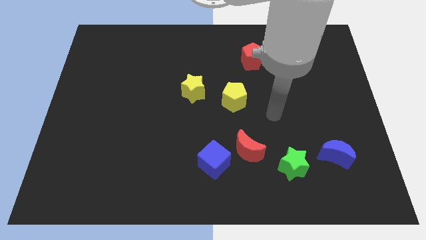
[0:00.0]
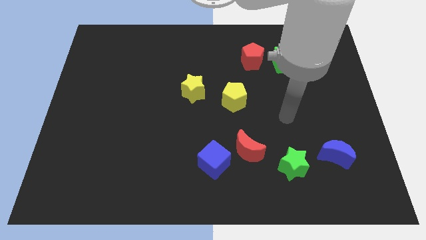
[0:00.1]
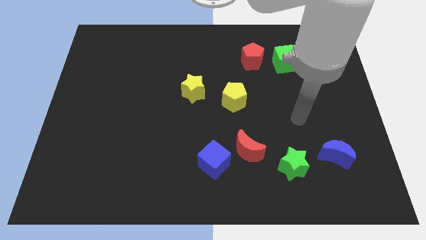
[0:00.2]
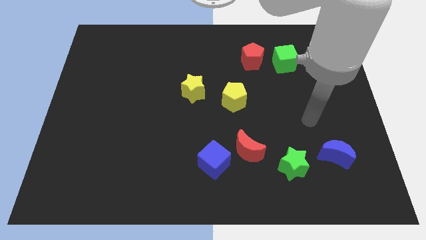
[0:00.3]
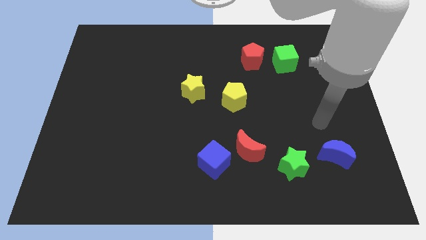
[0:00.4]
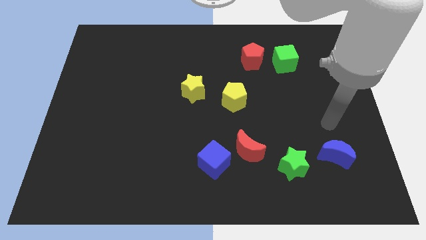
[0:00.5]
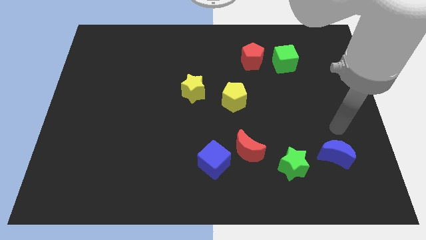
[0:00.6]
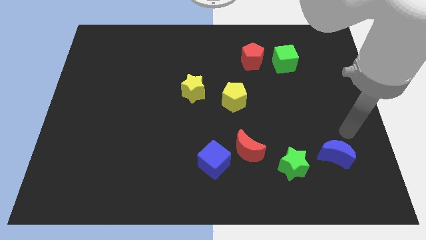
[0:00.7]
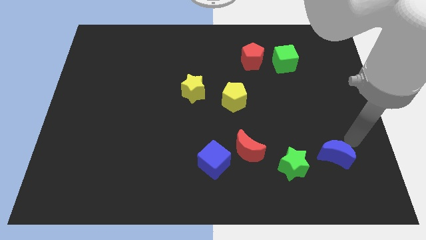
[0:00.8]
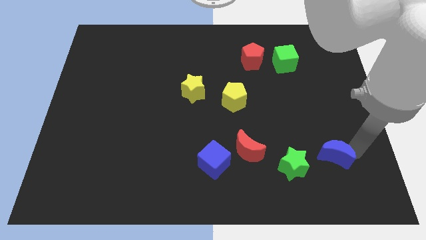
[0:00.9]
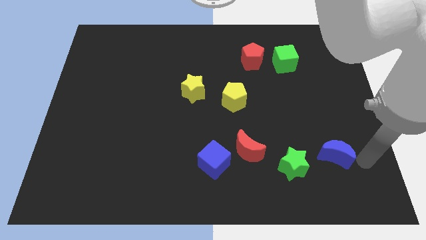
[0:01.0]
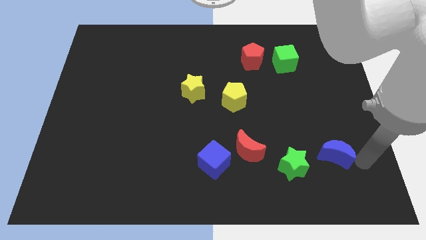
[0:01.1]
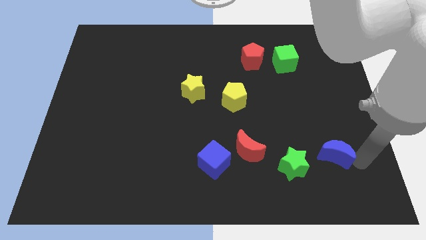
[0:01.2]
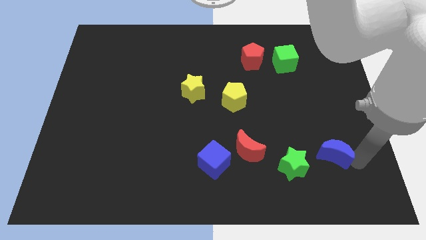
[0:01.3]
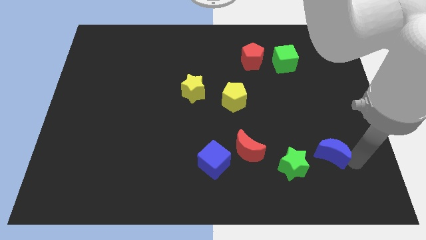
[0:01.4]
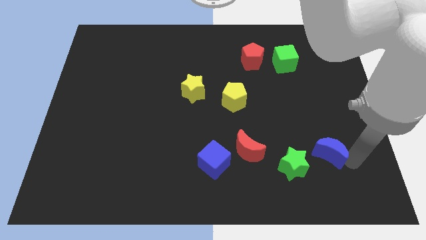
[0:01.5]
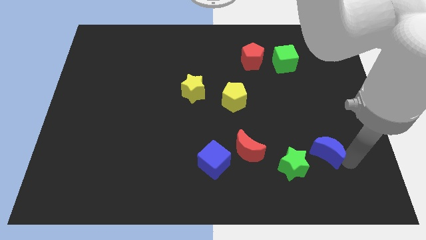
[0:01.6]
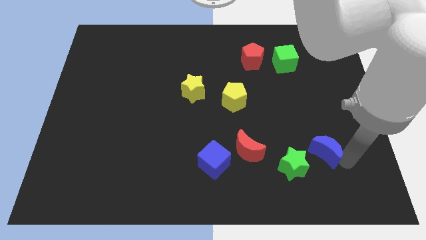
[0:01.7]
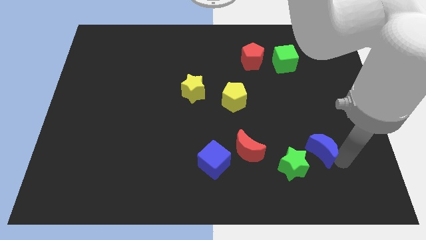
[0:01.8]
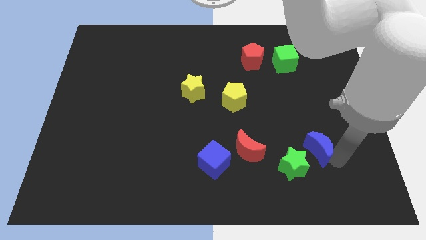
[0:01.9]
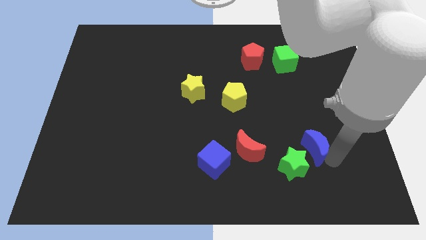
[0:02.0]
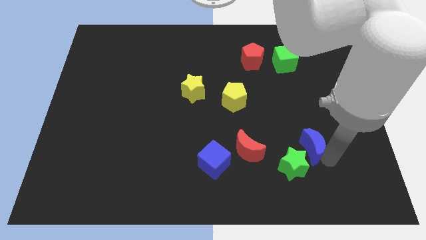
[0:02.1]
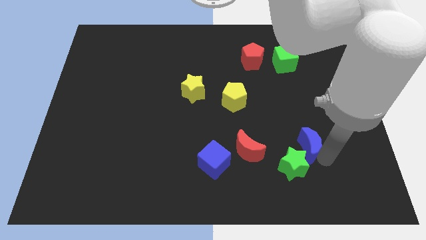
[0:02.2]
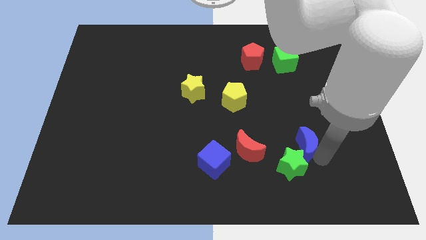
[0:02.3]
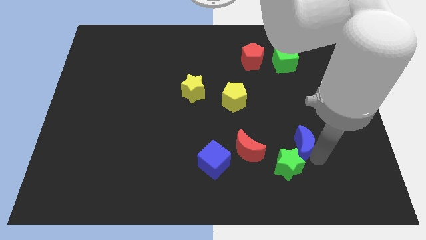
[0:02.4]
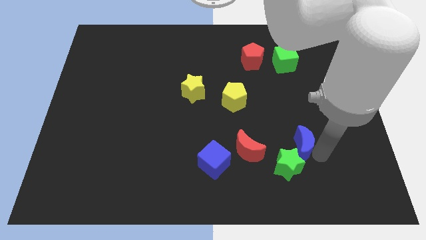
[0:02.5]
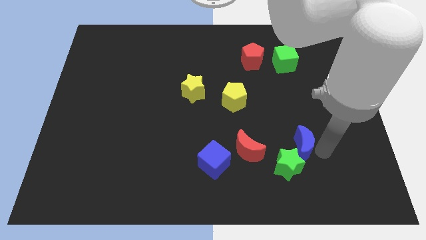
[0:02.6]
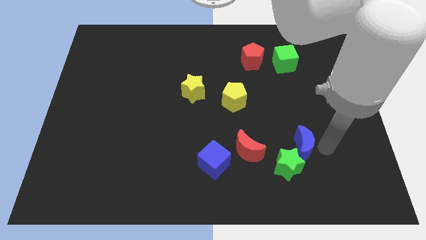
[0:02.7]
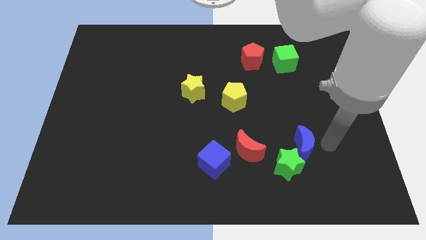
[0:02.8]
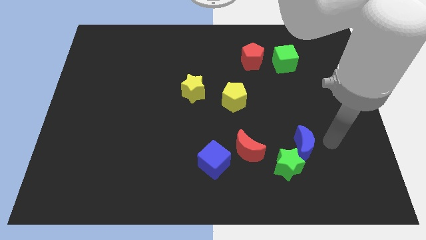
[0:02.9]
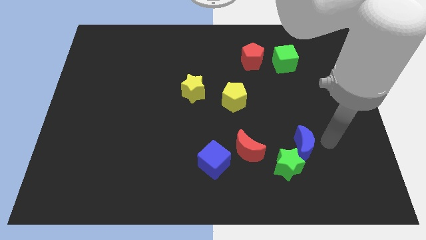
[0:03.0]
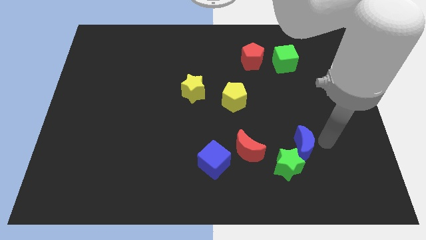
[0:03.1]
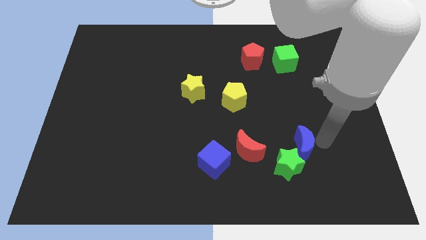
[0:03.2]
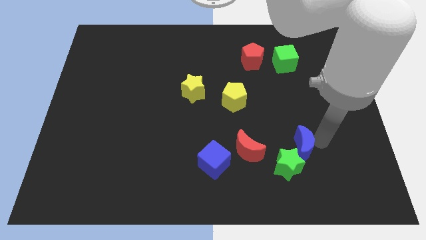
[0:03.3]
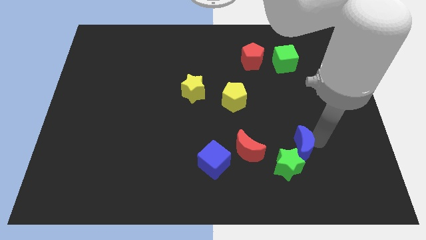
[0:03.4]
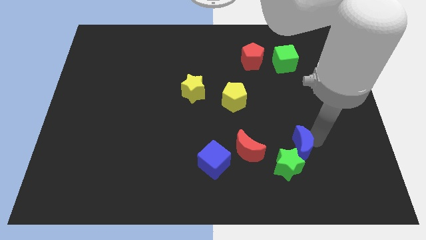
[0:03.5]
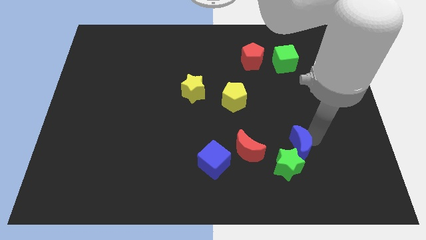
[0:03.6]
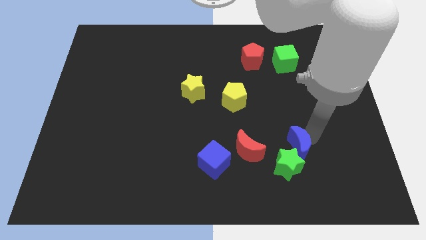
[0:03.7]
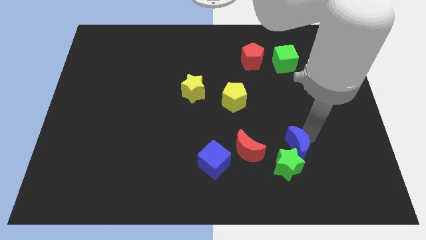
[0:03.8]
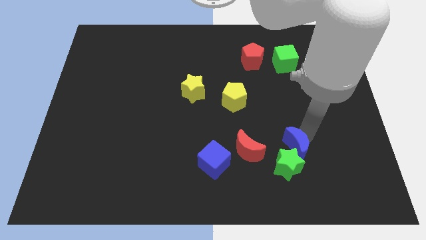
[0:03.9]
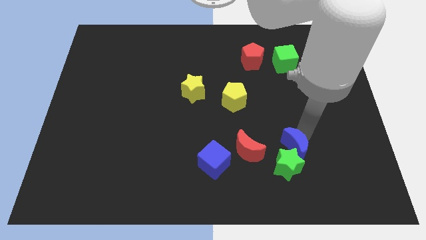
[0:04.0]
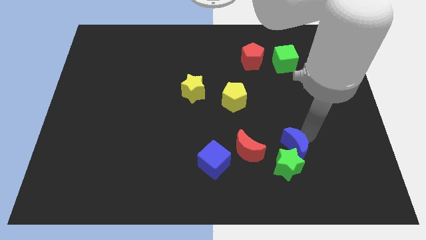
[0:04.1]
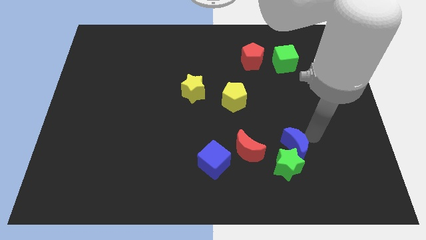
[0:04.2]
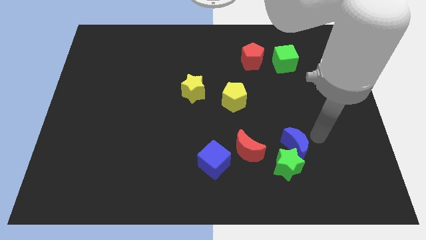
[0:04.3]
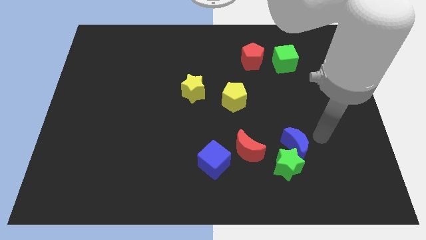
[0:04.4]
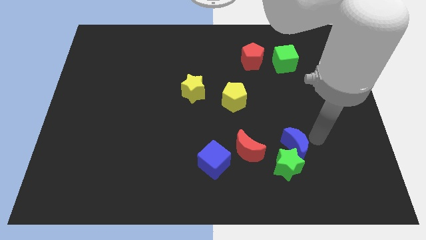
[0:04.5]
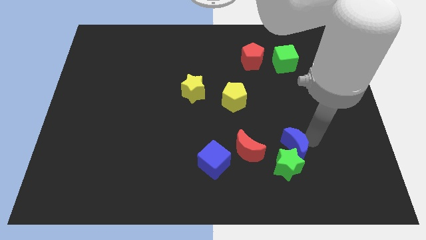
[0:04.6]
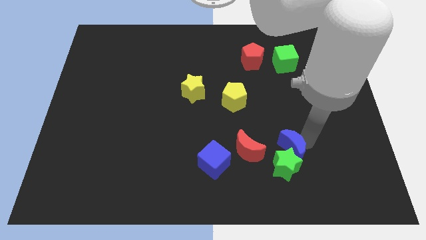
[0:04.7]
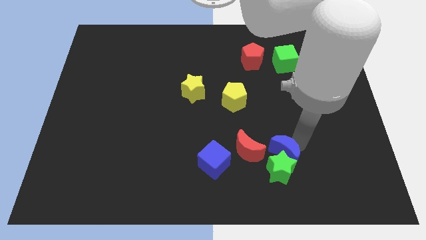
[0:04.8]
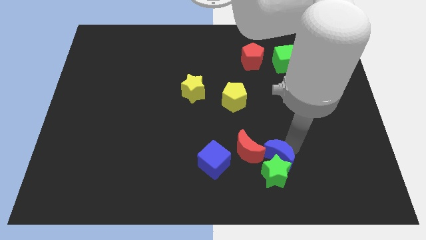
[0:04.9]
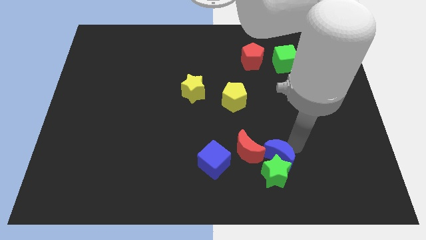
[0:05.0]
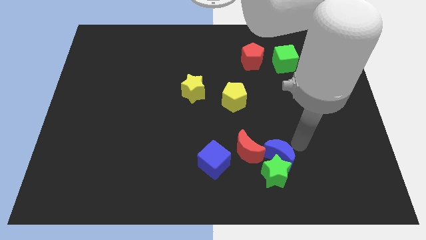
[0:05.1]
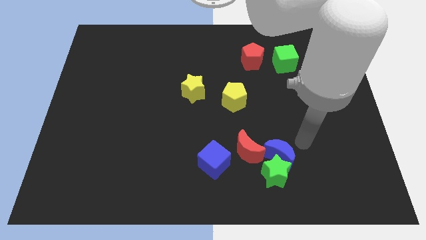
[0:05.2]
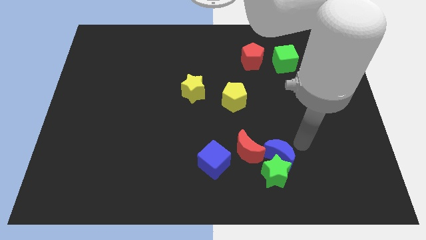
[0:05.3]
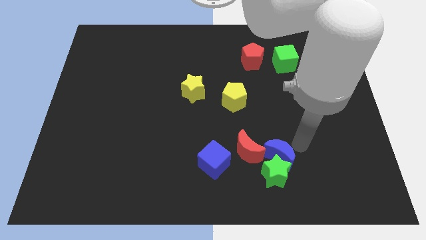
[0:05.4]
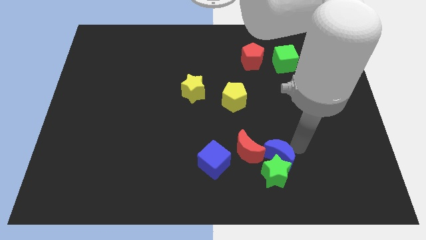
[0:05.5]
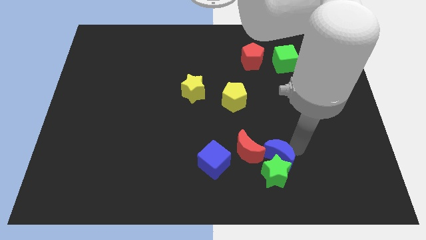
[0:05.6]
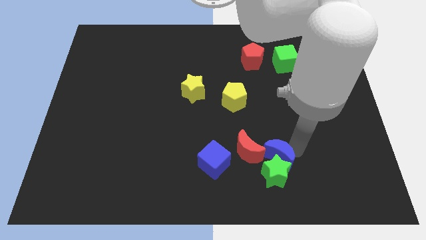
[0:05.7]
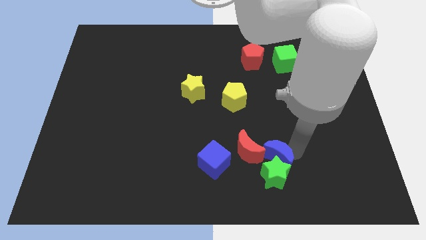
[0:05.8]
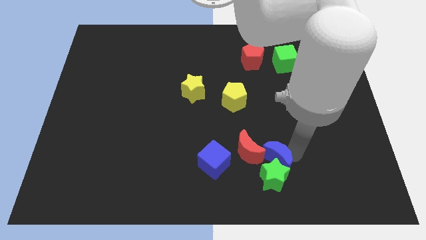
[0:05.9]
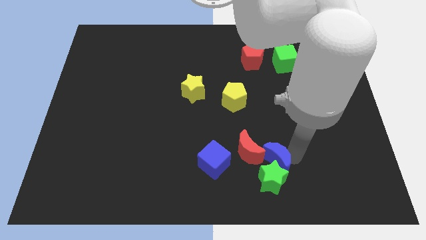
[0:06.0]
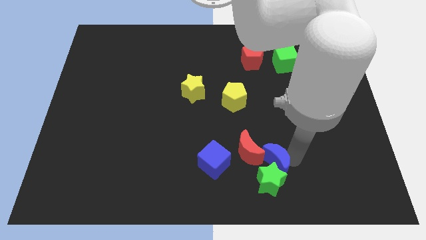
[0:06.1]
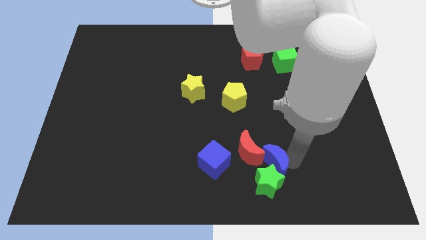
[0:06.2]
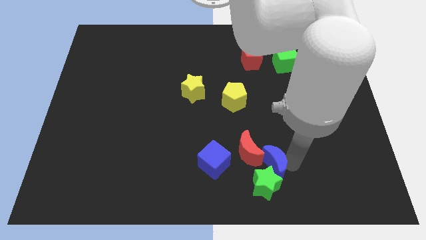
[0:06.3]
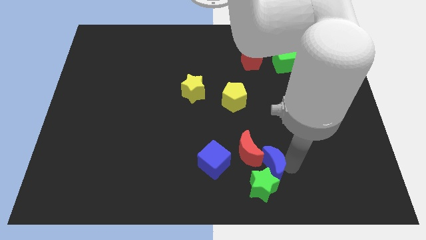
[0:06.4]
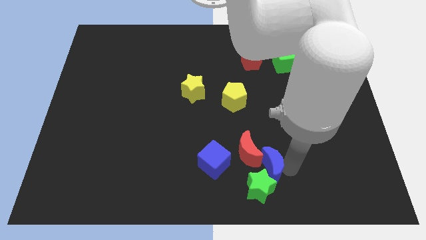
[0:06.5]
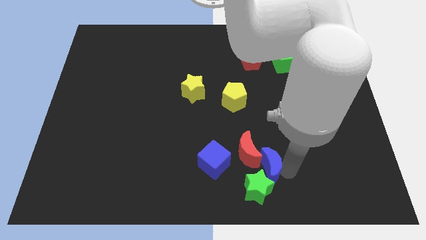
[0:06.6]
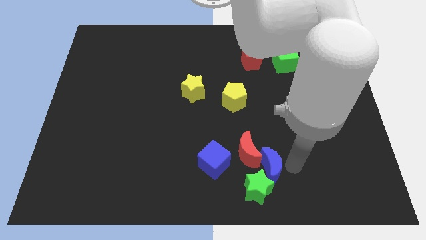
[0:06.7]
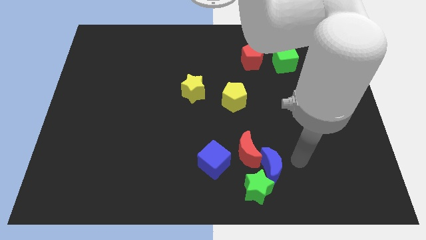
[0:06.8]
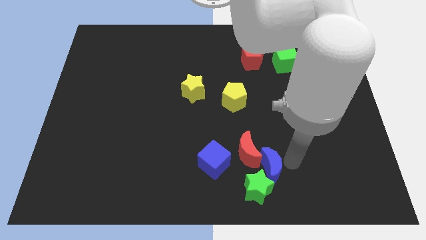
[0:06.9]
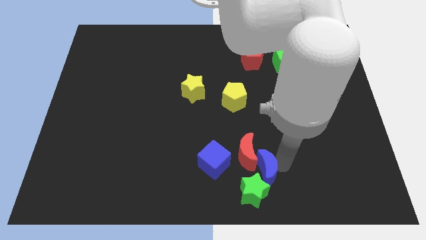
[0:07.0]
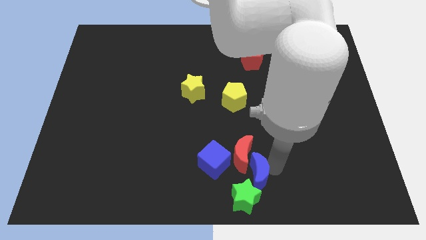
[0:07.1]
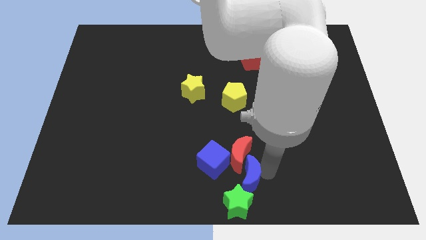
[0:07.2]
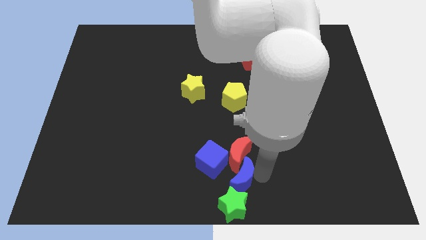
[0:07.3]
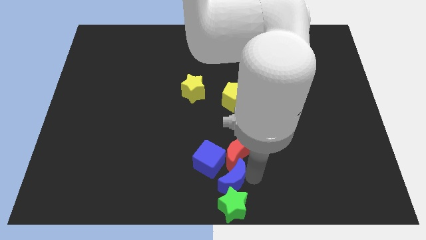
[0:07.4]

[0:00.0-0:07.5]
slide the blue moon to the left

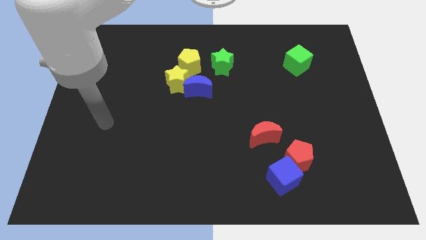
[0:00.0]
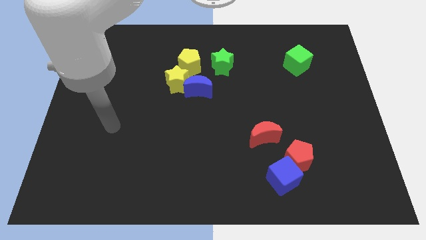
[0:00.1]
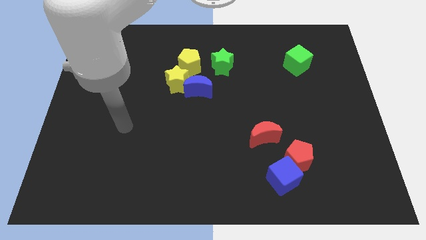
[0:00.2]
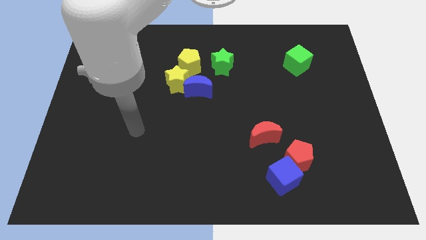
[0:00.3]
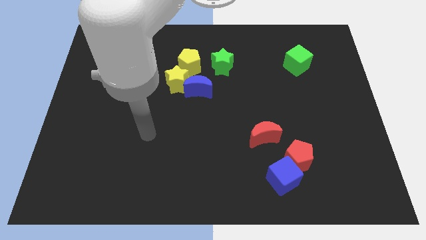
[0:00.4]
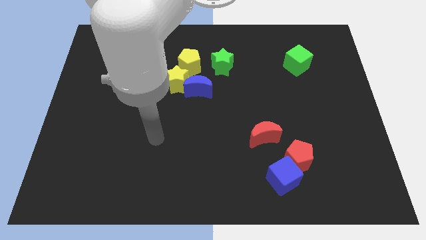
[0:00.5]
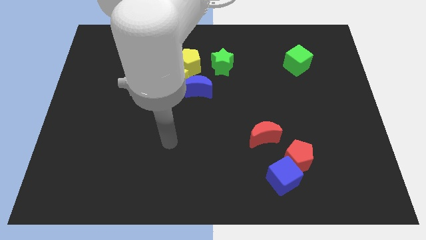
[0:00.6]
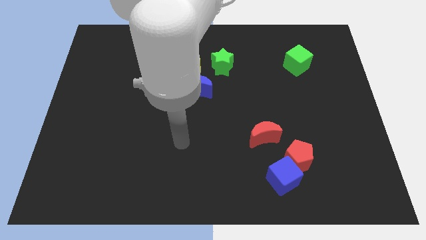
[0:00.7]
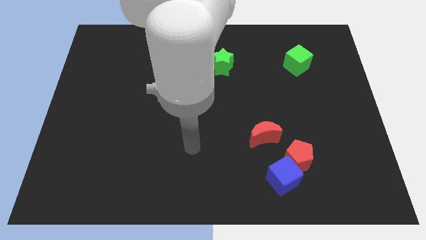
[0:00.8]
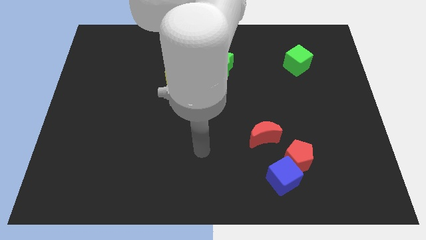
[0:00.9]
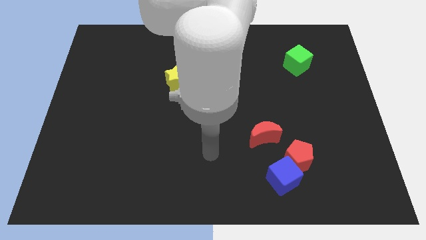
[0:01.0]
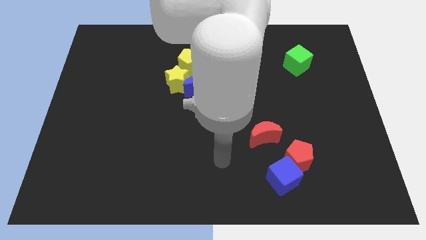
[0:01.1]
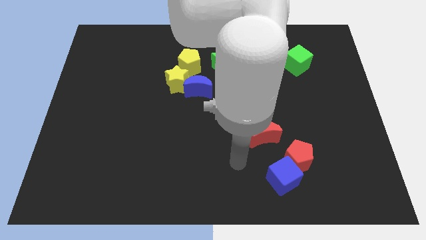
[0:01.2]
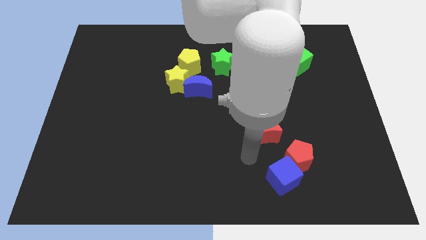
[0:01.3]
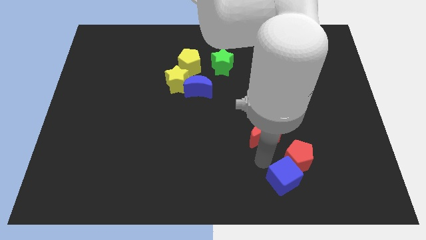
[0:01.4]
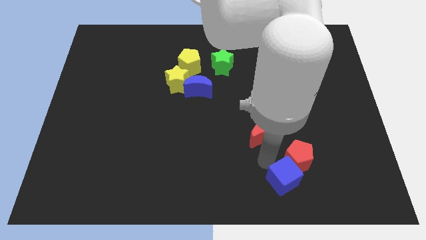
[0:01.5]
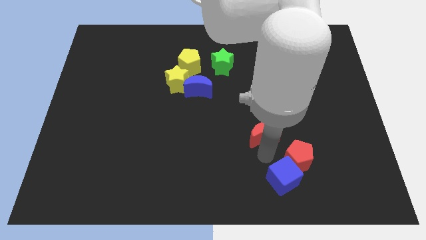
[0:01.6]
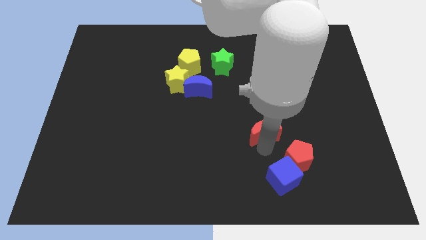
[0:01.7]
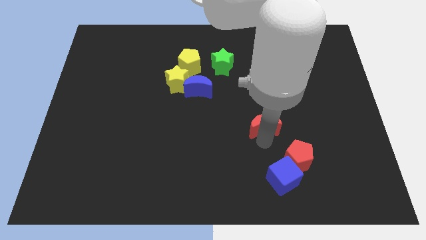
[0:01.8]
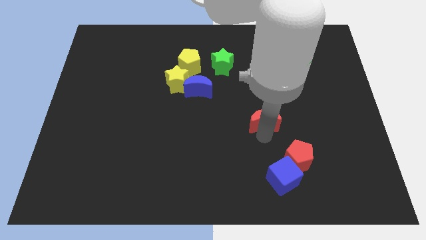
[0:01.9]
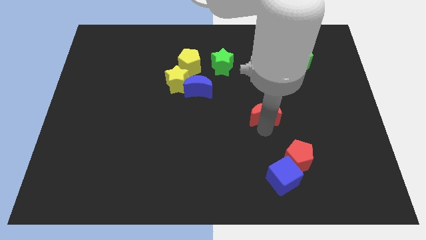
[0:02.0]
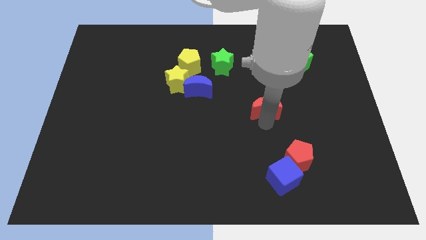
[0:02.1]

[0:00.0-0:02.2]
slightly push the red moon upwards
